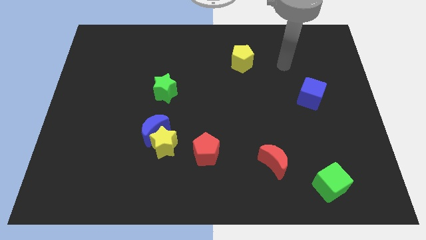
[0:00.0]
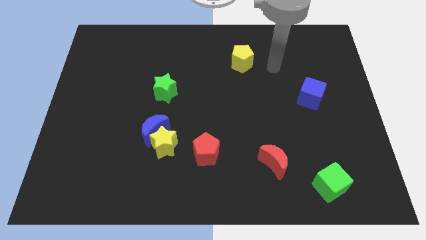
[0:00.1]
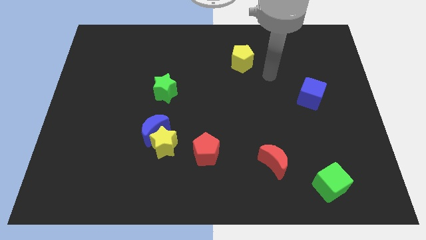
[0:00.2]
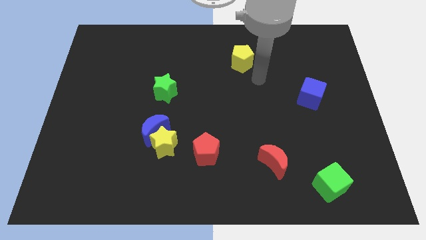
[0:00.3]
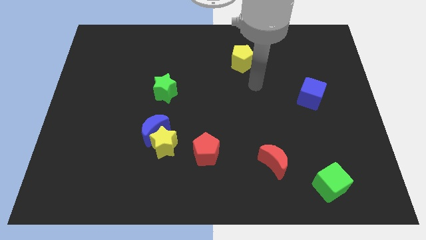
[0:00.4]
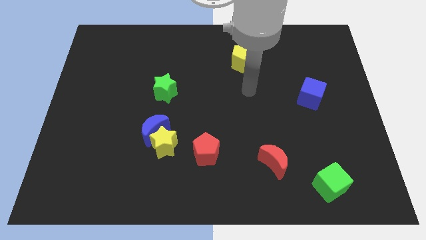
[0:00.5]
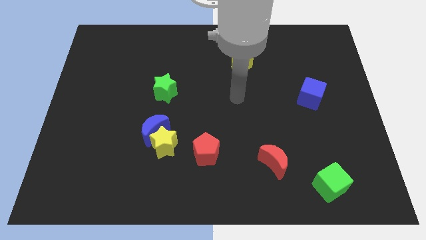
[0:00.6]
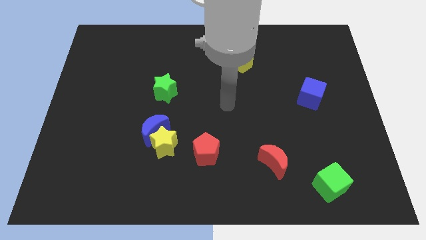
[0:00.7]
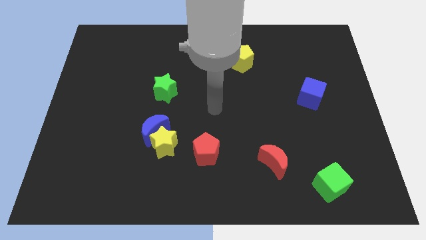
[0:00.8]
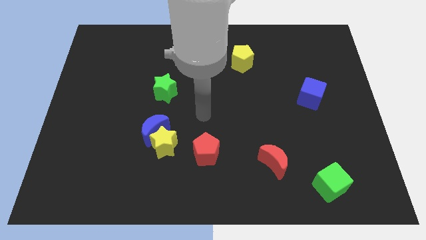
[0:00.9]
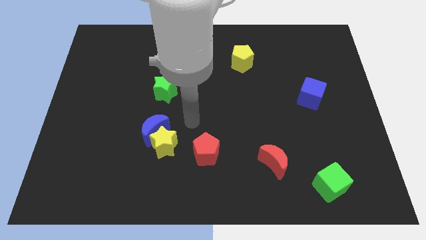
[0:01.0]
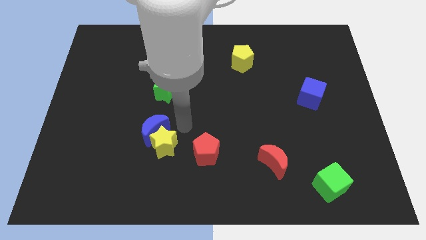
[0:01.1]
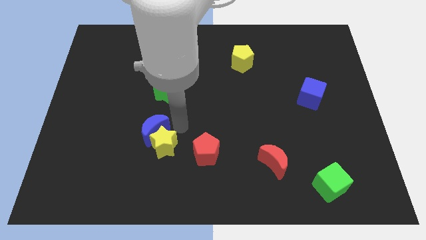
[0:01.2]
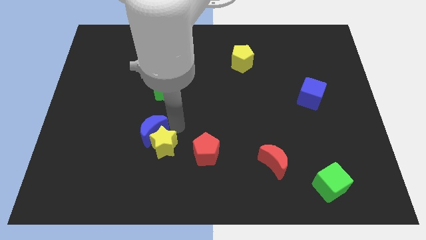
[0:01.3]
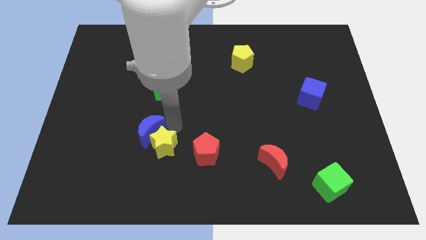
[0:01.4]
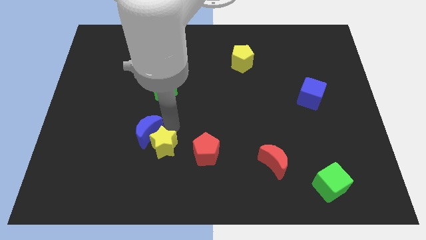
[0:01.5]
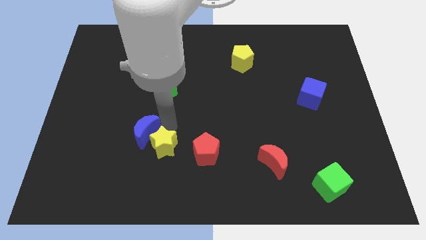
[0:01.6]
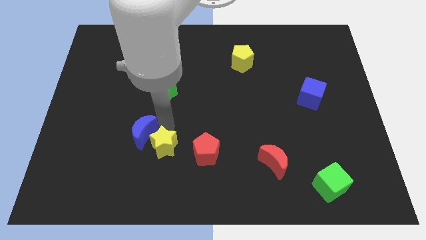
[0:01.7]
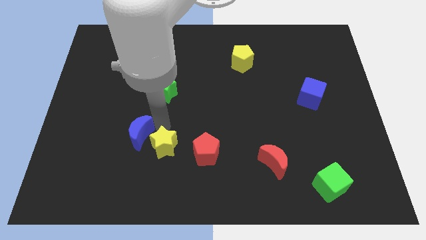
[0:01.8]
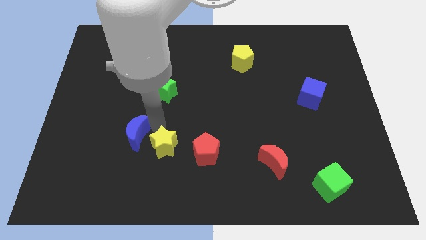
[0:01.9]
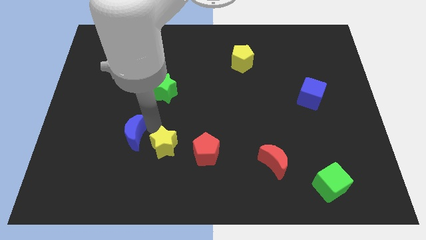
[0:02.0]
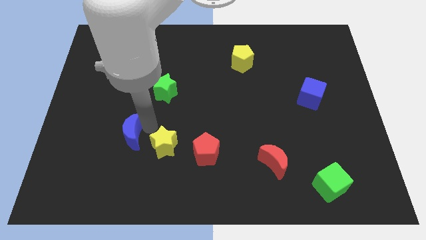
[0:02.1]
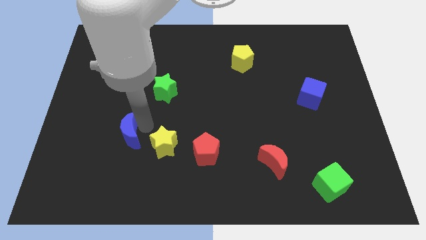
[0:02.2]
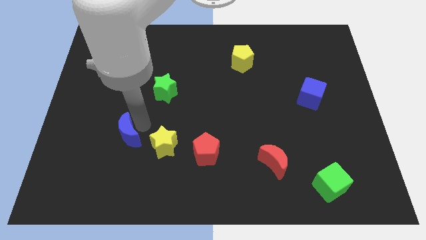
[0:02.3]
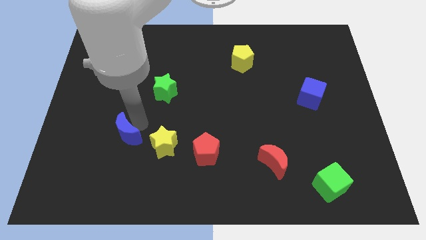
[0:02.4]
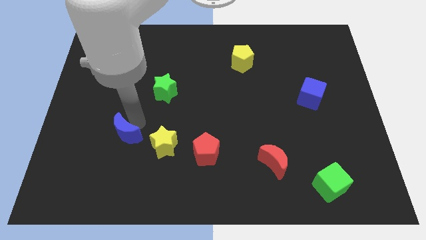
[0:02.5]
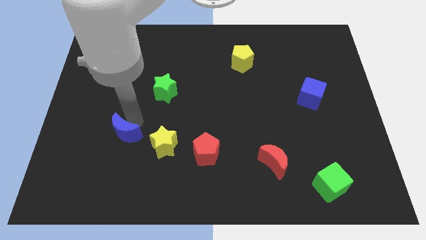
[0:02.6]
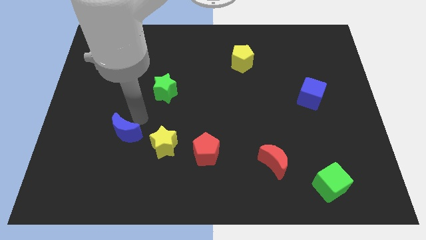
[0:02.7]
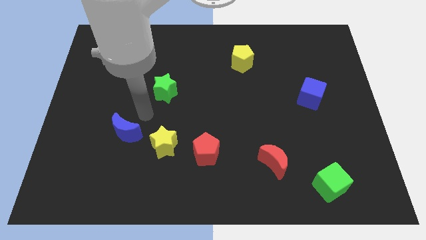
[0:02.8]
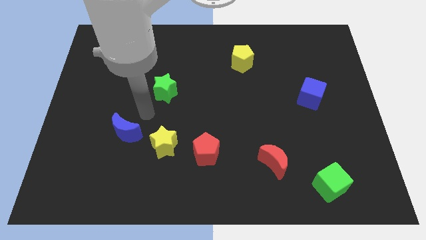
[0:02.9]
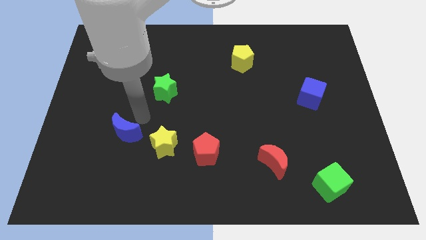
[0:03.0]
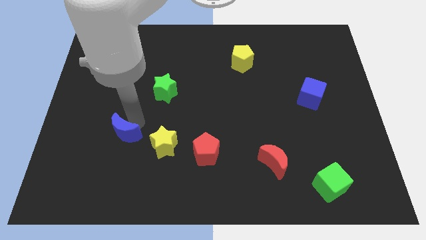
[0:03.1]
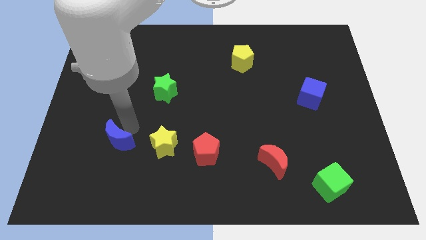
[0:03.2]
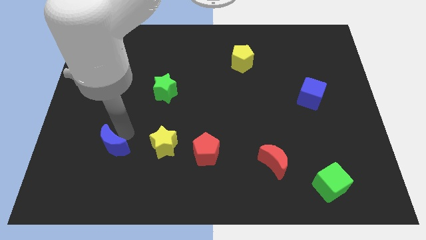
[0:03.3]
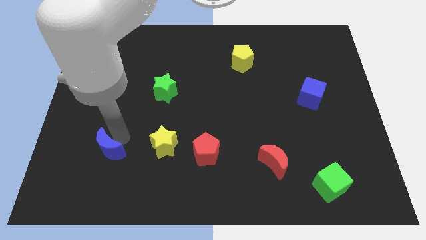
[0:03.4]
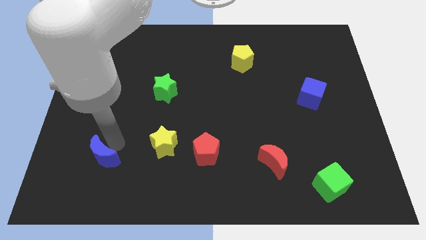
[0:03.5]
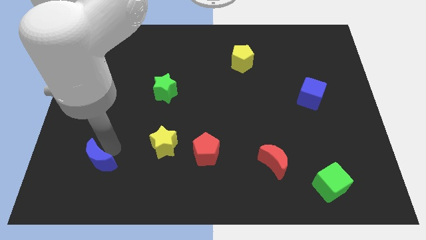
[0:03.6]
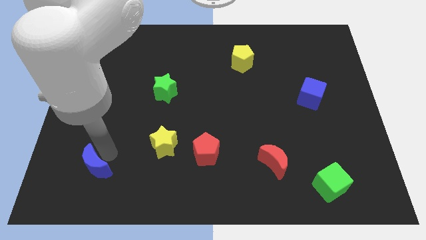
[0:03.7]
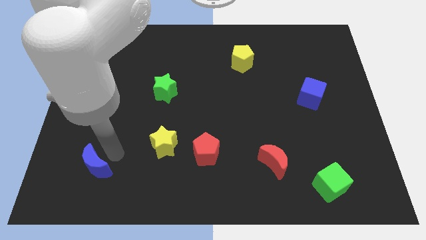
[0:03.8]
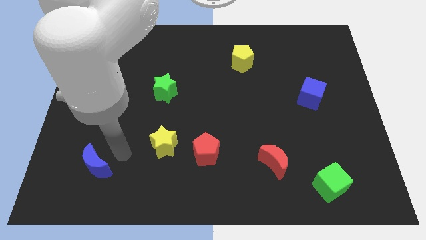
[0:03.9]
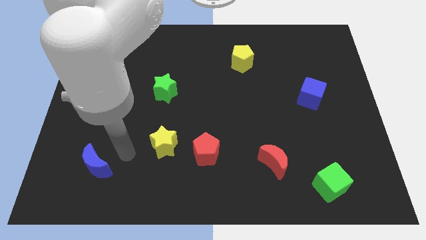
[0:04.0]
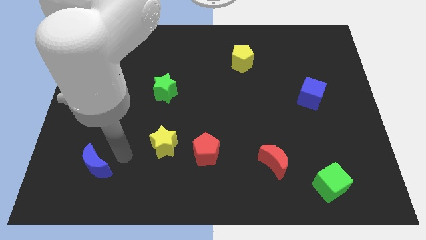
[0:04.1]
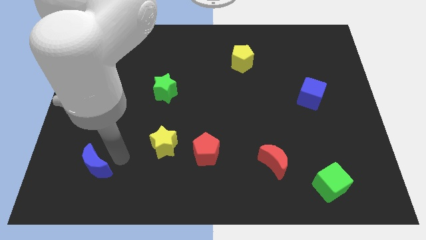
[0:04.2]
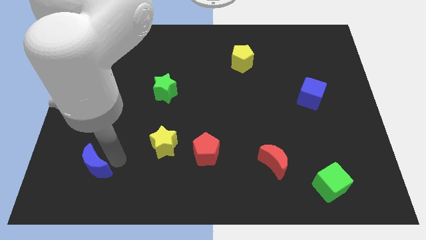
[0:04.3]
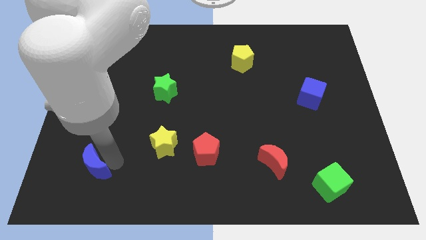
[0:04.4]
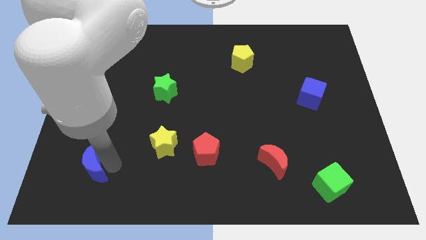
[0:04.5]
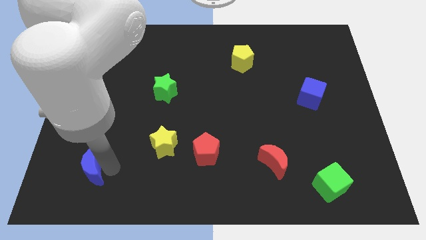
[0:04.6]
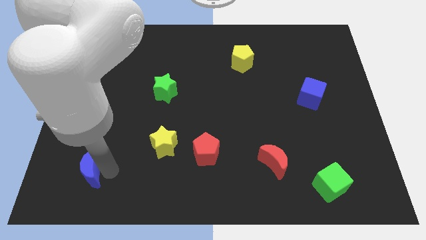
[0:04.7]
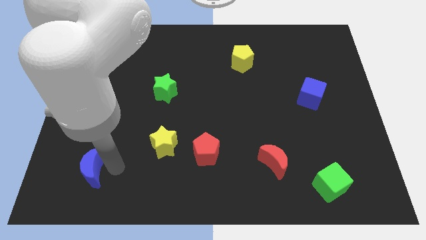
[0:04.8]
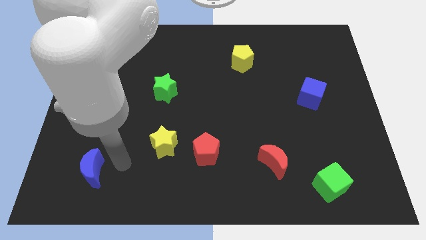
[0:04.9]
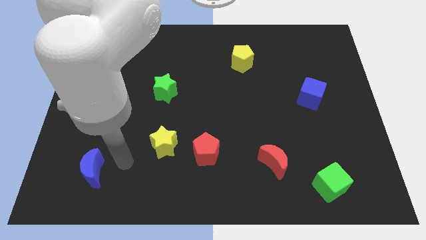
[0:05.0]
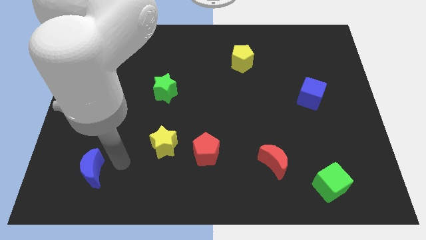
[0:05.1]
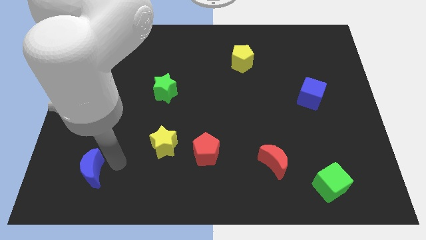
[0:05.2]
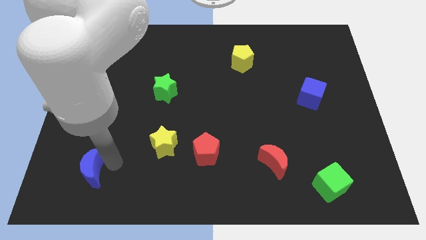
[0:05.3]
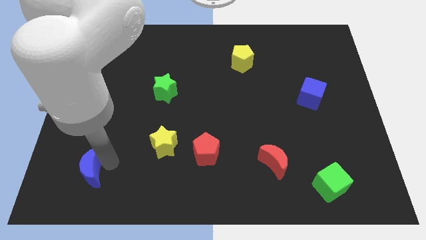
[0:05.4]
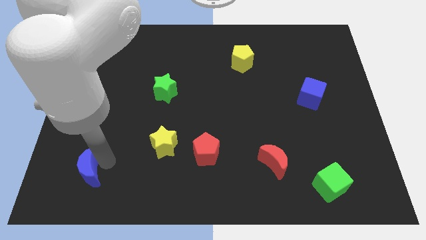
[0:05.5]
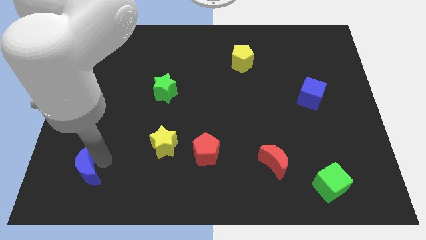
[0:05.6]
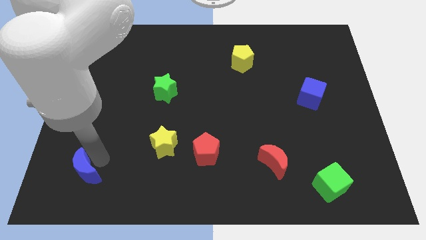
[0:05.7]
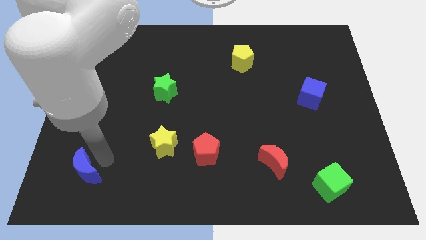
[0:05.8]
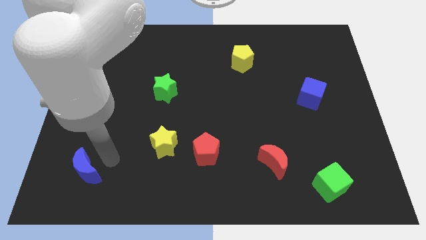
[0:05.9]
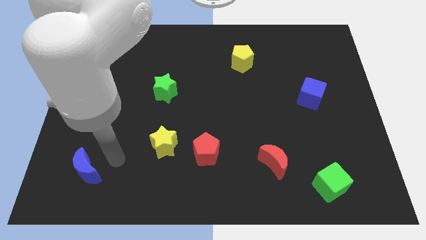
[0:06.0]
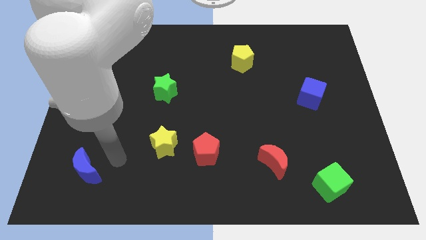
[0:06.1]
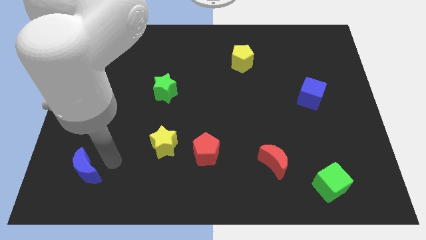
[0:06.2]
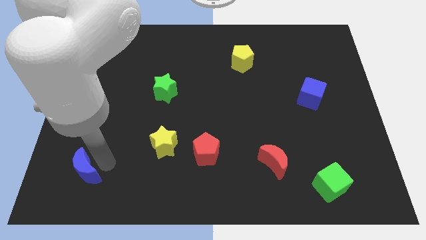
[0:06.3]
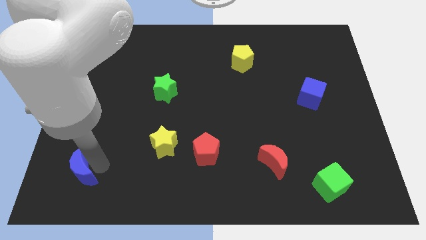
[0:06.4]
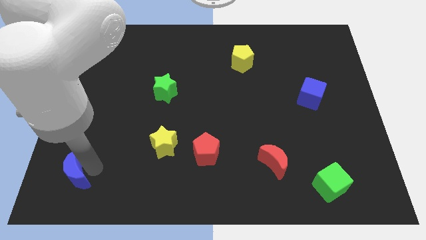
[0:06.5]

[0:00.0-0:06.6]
slide the blue moon to the bottom left of the board
